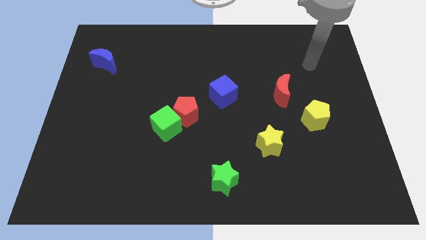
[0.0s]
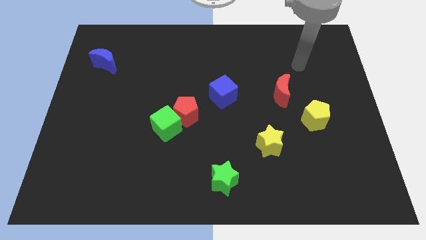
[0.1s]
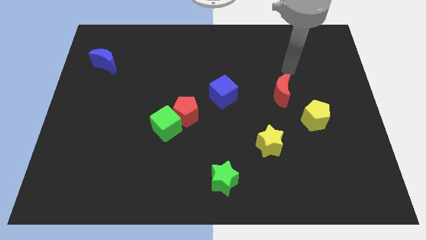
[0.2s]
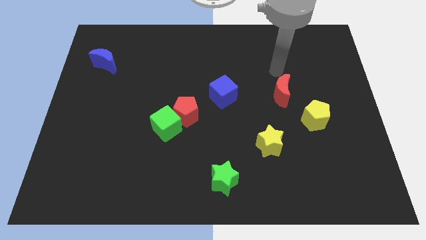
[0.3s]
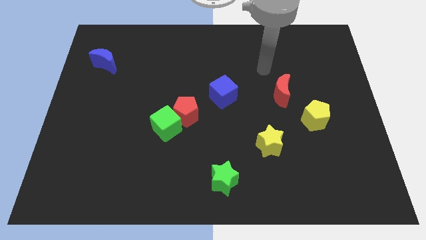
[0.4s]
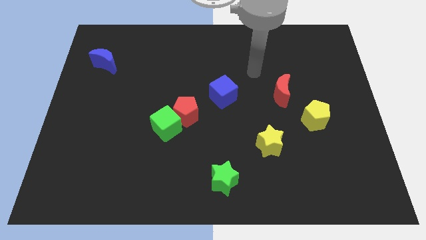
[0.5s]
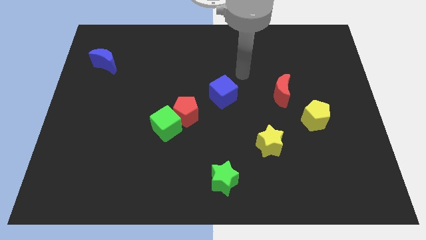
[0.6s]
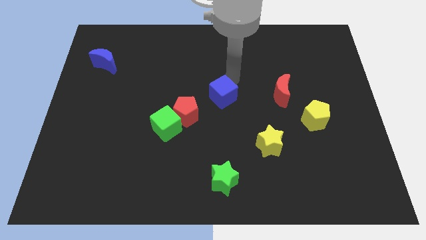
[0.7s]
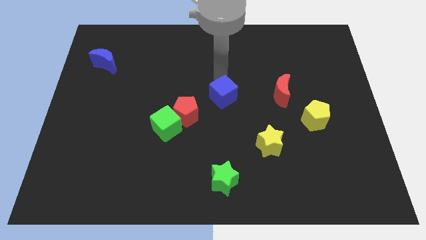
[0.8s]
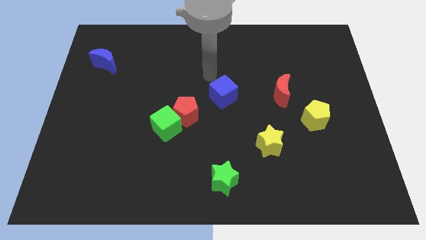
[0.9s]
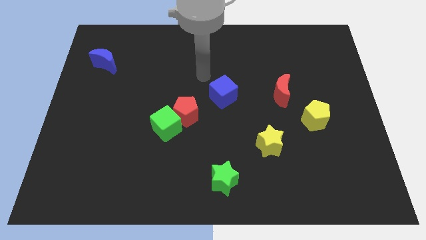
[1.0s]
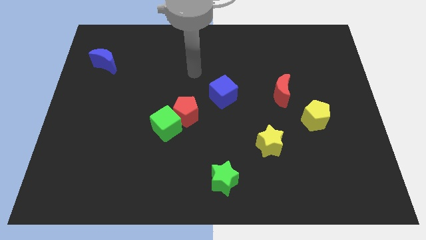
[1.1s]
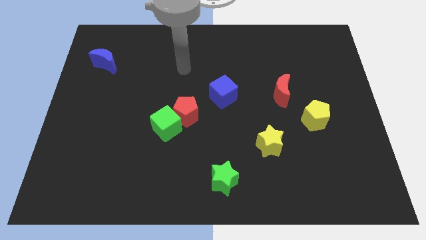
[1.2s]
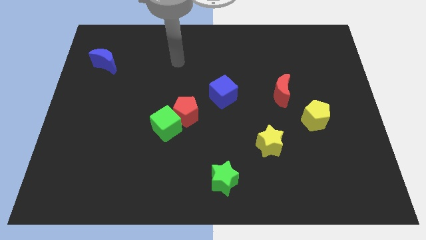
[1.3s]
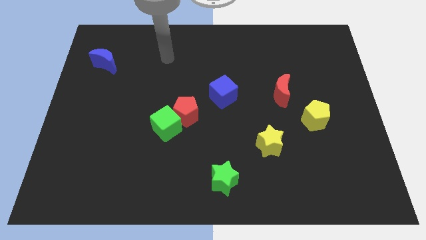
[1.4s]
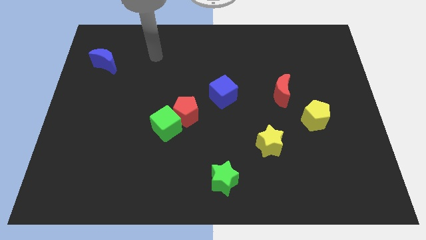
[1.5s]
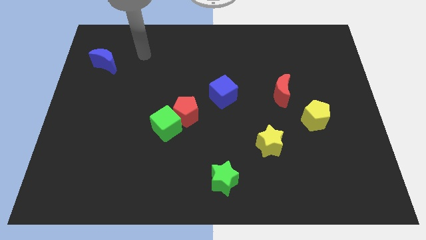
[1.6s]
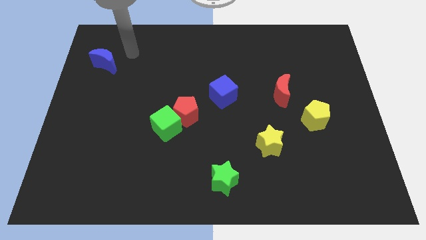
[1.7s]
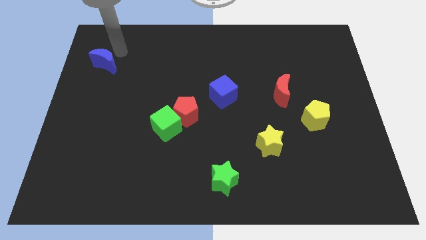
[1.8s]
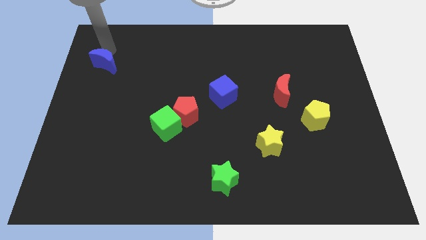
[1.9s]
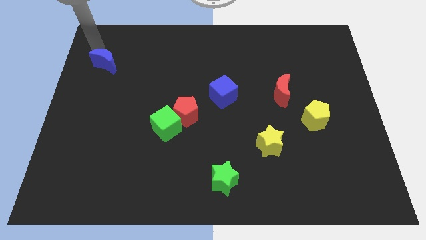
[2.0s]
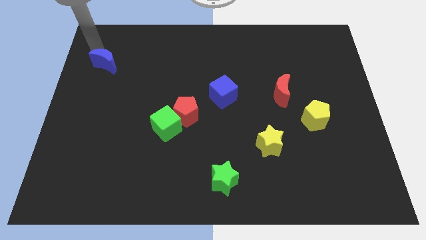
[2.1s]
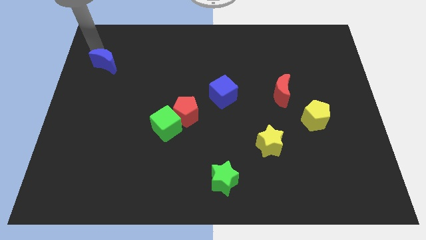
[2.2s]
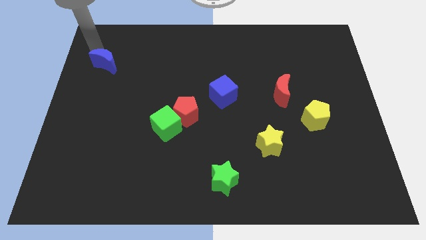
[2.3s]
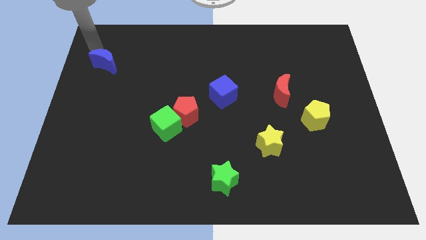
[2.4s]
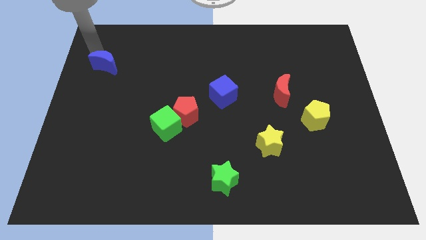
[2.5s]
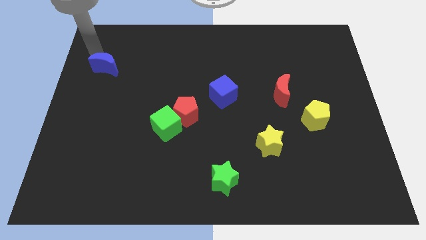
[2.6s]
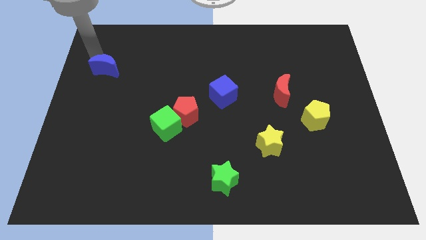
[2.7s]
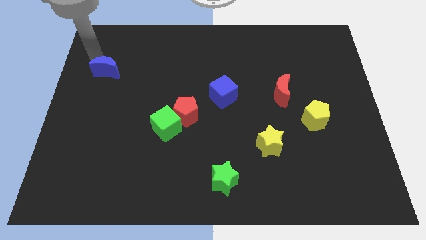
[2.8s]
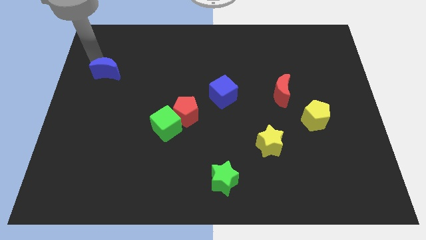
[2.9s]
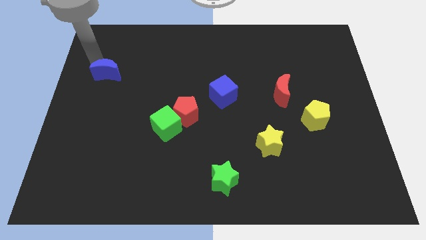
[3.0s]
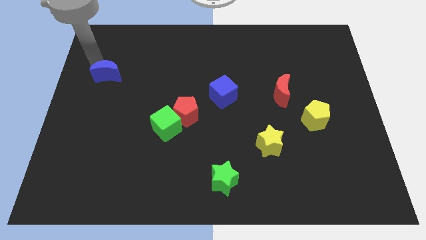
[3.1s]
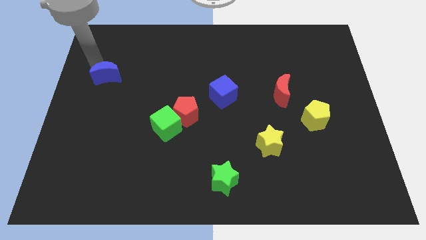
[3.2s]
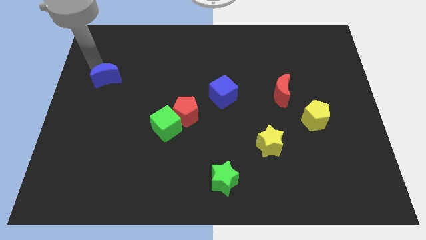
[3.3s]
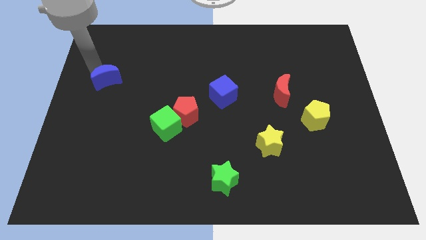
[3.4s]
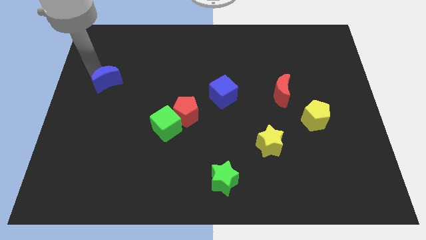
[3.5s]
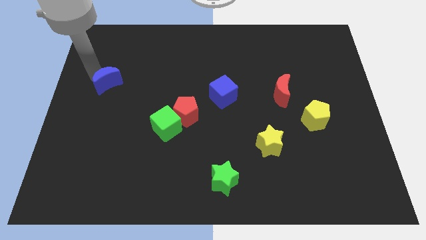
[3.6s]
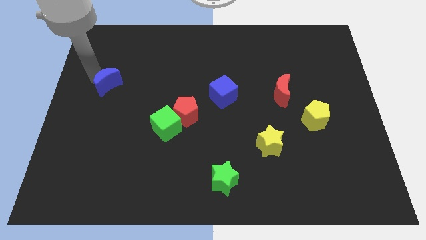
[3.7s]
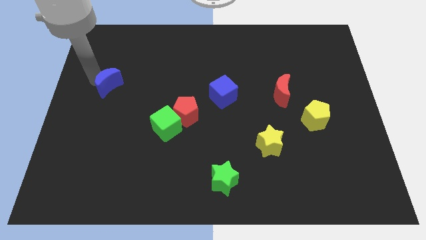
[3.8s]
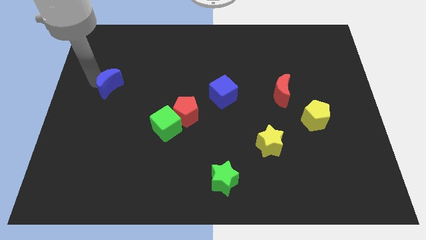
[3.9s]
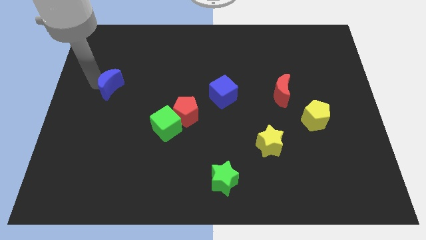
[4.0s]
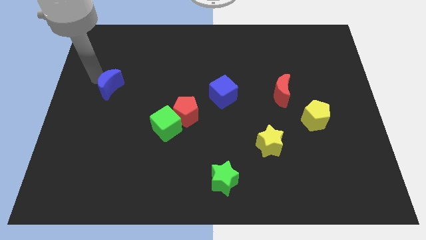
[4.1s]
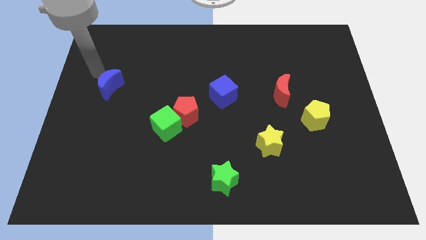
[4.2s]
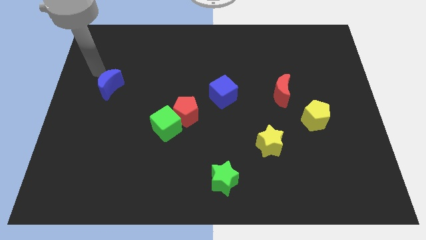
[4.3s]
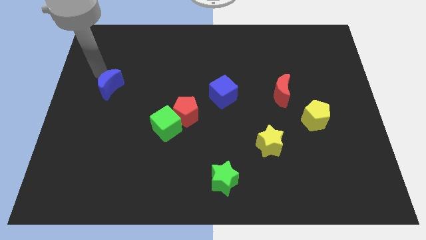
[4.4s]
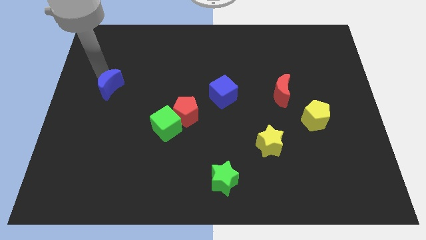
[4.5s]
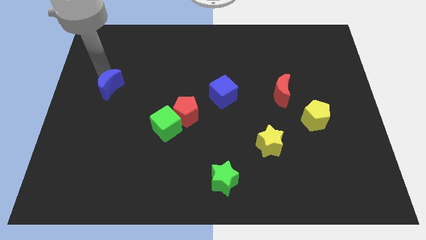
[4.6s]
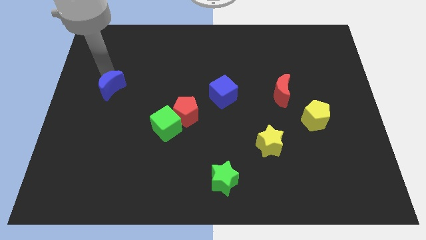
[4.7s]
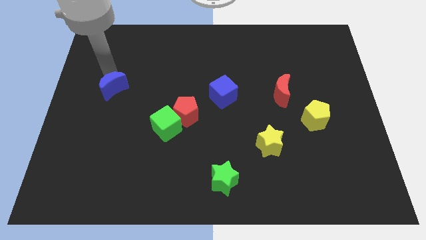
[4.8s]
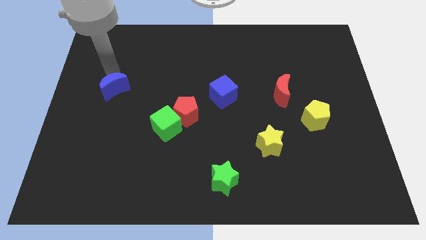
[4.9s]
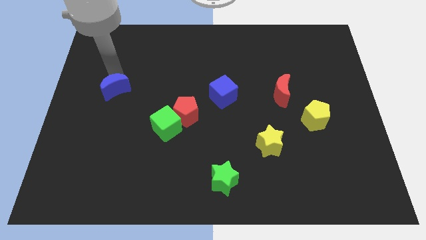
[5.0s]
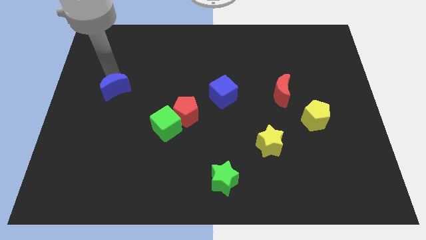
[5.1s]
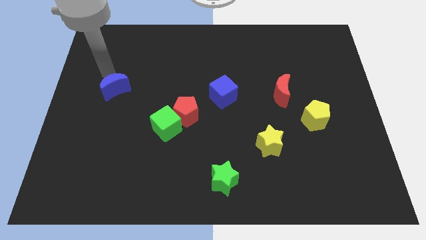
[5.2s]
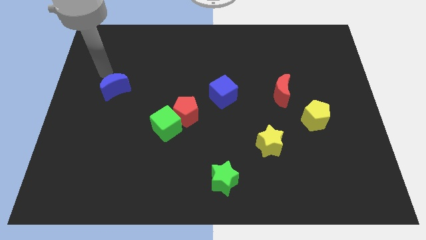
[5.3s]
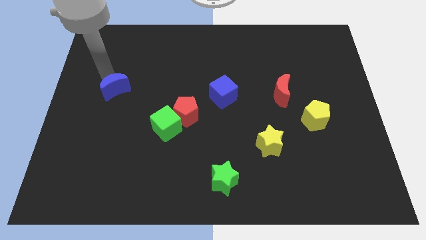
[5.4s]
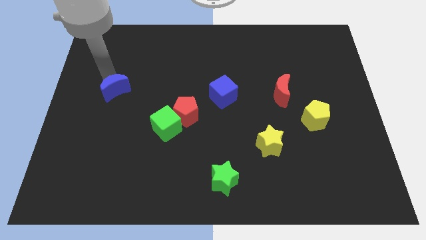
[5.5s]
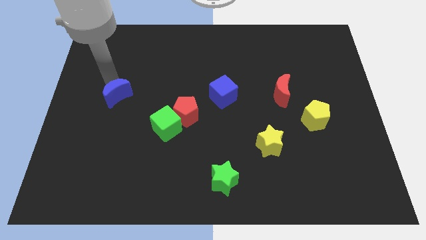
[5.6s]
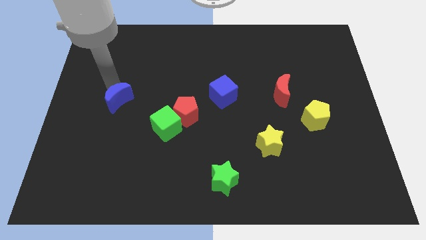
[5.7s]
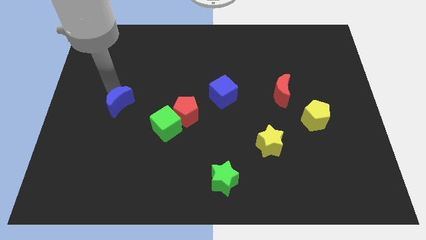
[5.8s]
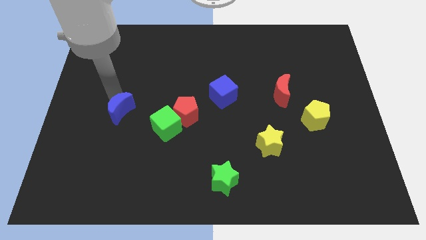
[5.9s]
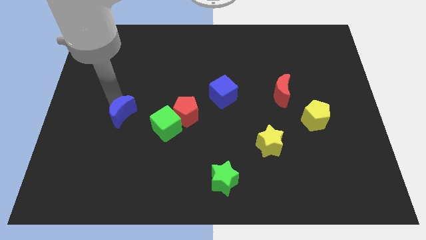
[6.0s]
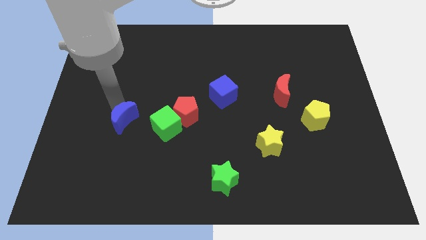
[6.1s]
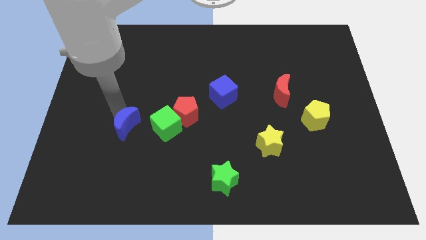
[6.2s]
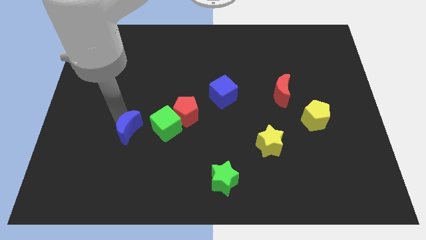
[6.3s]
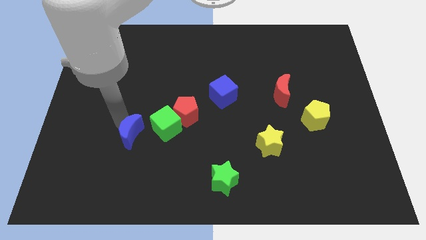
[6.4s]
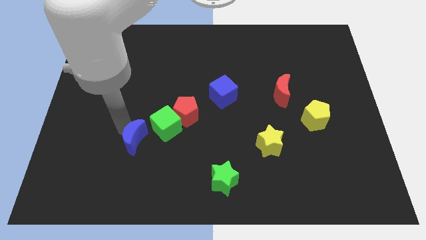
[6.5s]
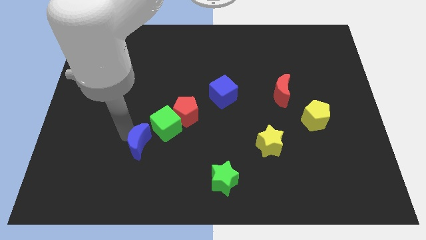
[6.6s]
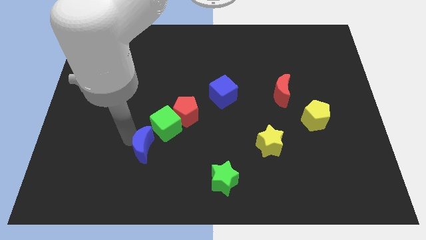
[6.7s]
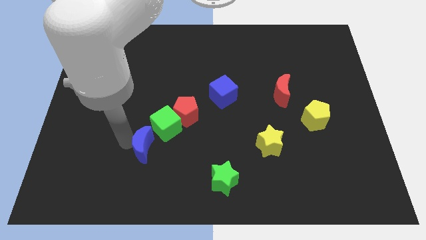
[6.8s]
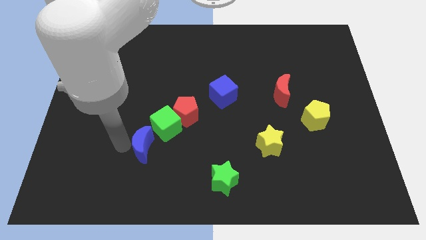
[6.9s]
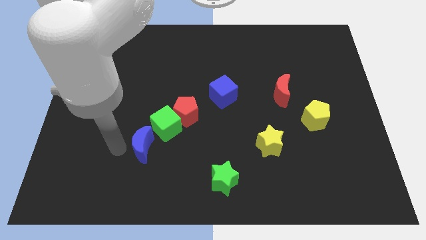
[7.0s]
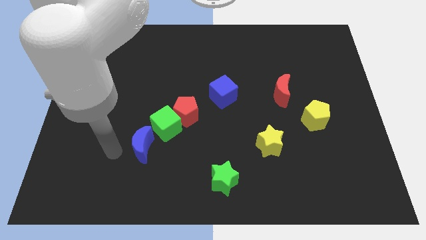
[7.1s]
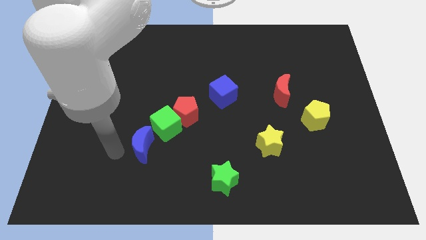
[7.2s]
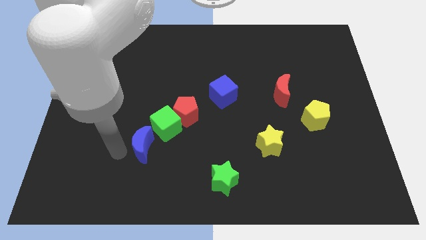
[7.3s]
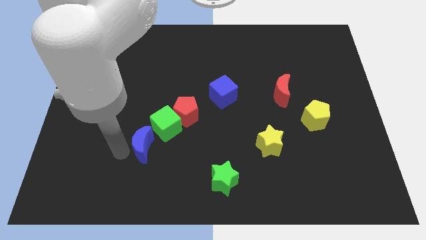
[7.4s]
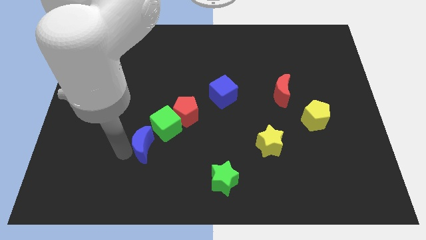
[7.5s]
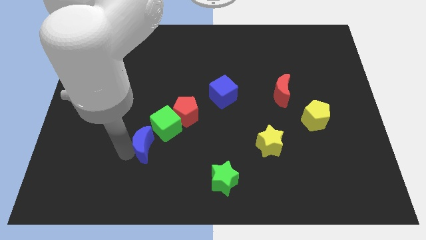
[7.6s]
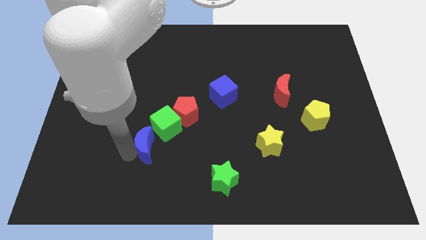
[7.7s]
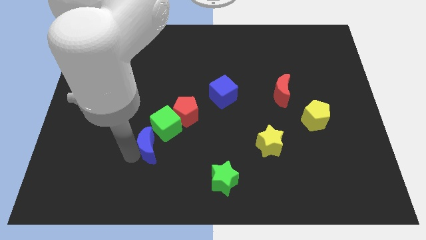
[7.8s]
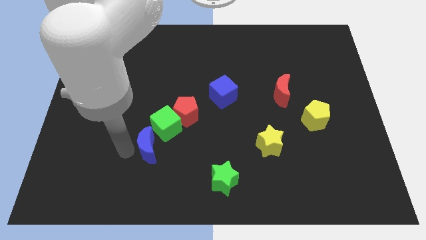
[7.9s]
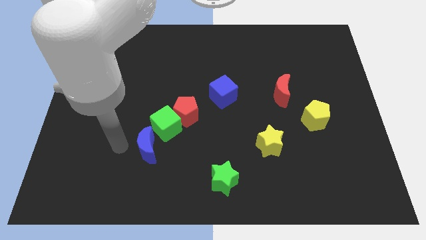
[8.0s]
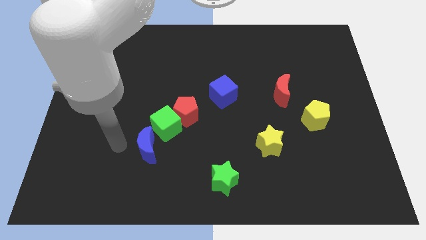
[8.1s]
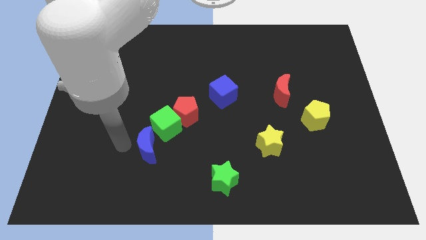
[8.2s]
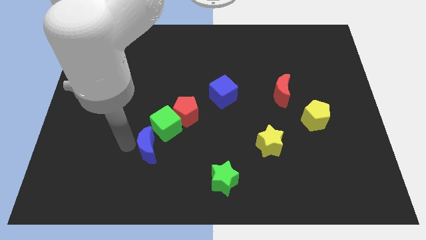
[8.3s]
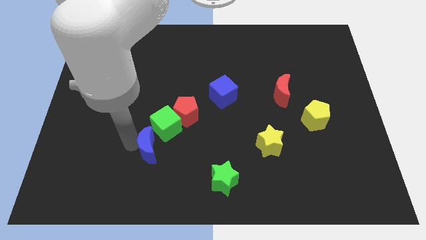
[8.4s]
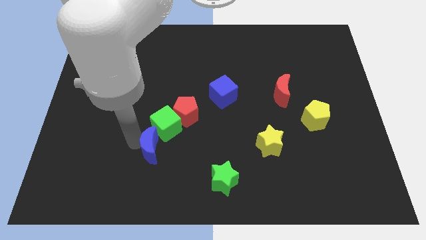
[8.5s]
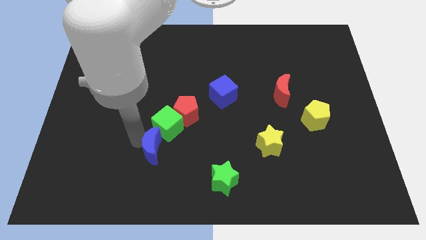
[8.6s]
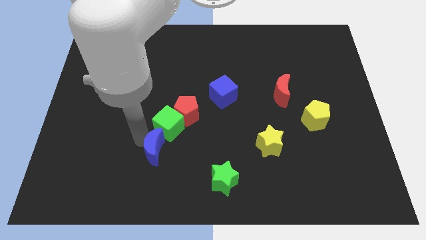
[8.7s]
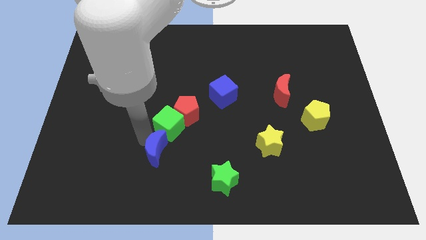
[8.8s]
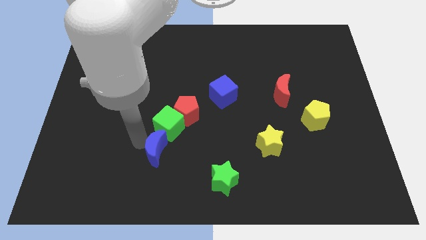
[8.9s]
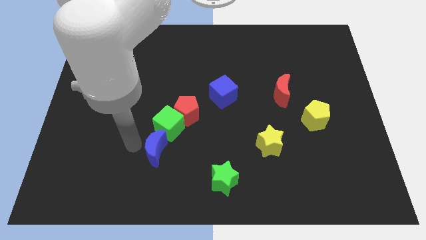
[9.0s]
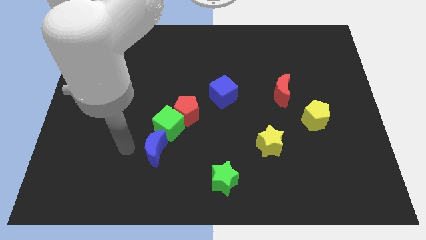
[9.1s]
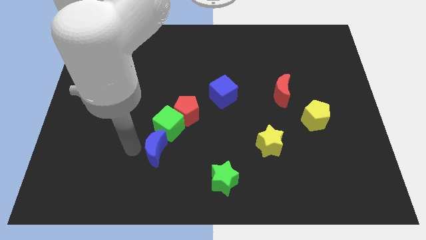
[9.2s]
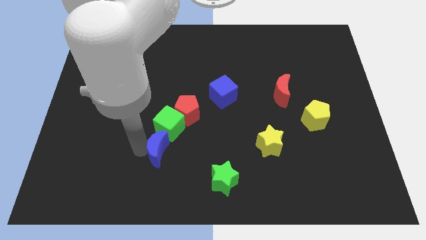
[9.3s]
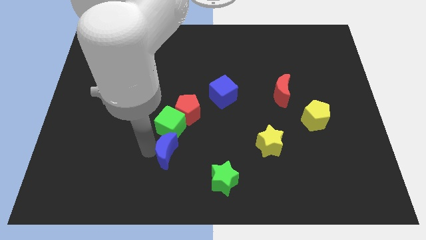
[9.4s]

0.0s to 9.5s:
move the blue moon below the red pentagon
